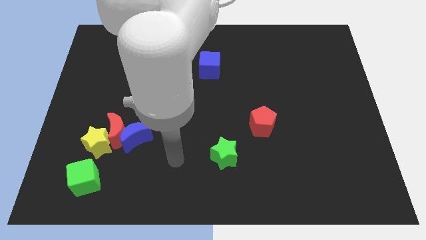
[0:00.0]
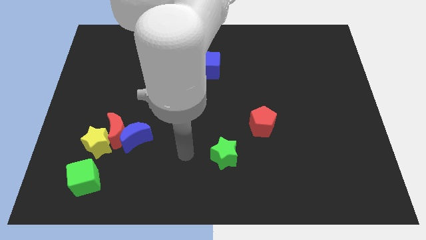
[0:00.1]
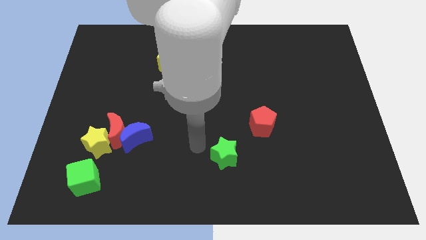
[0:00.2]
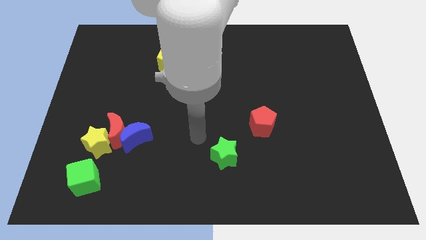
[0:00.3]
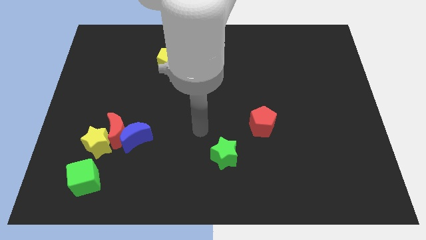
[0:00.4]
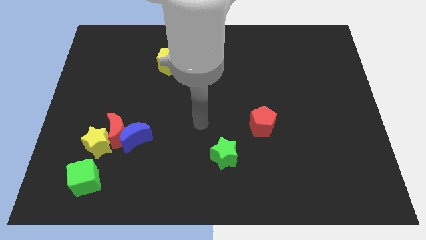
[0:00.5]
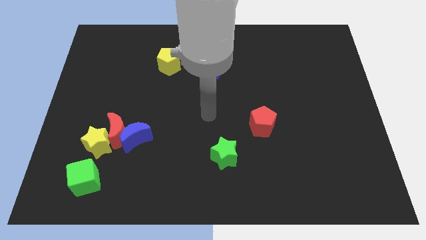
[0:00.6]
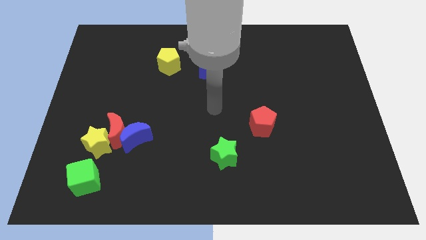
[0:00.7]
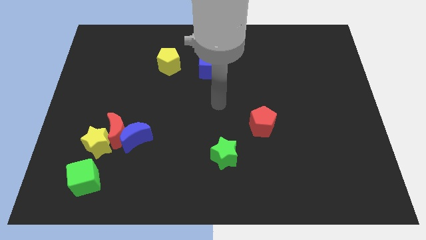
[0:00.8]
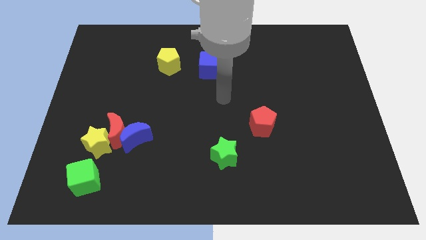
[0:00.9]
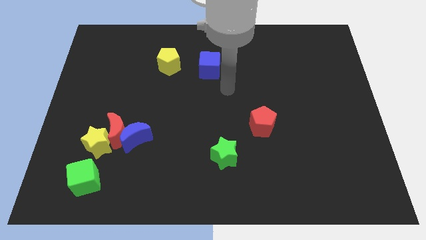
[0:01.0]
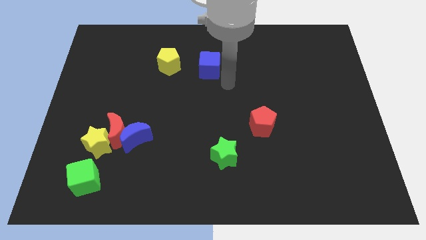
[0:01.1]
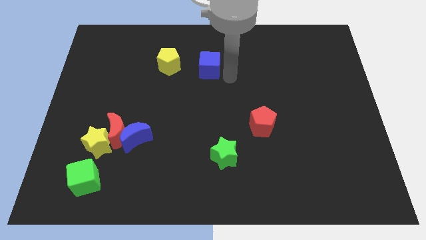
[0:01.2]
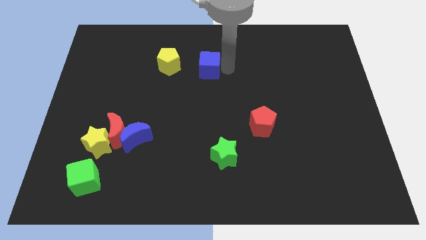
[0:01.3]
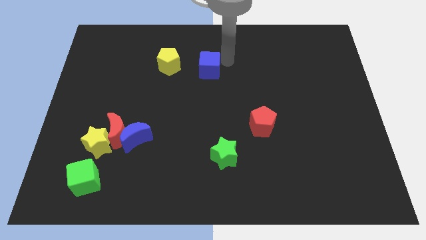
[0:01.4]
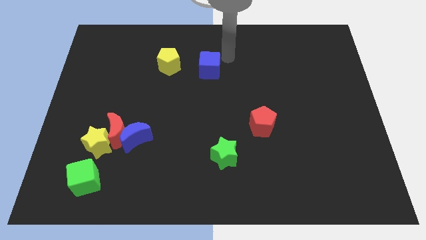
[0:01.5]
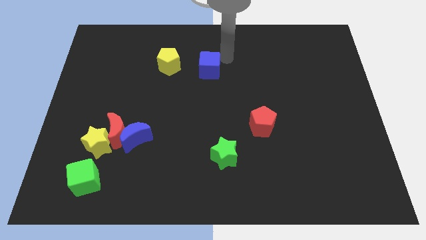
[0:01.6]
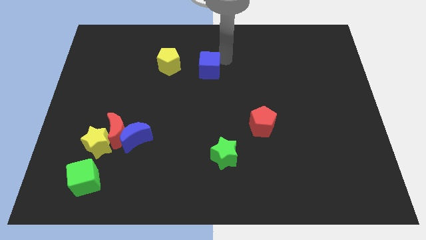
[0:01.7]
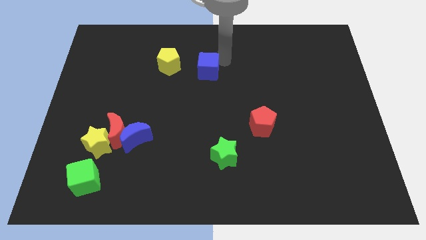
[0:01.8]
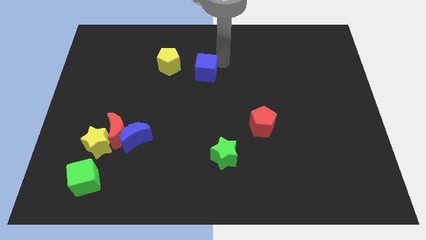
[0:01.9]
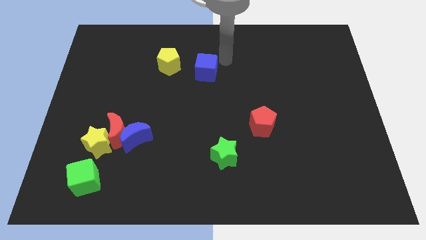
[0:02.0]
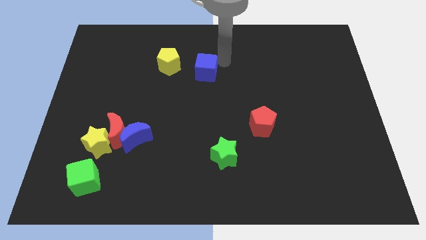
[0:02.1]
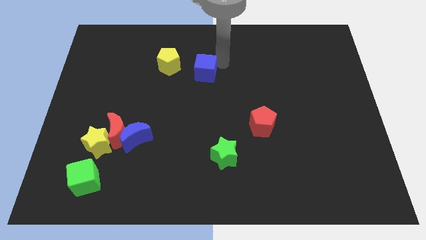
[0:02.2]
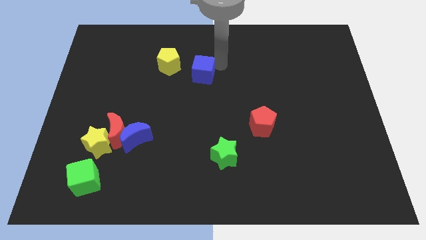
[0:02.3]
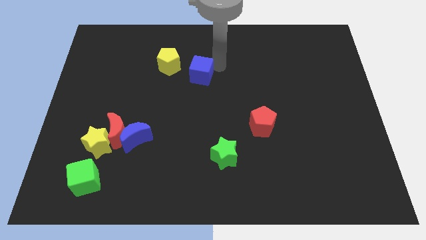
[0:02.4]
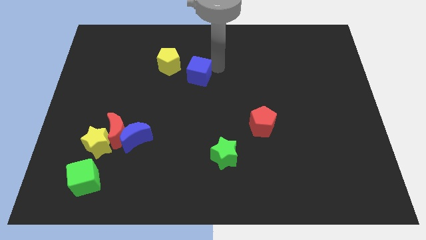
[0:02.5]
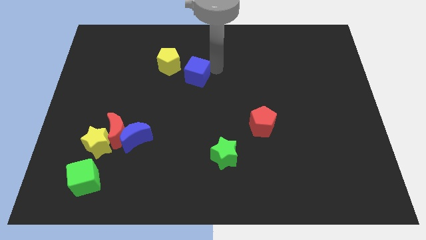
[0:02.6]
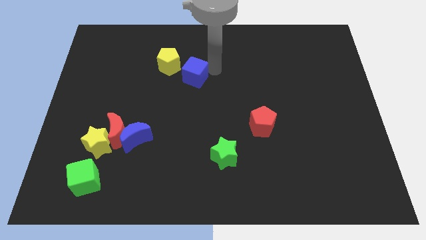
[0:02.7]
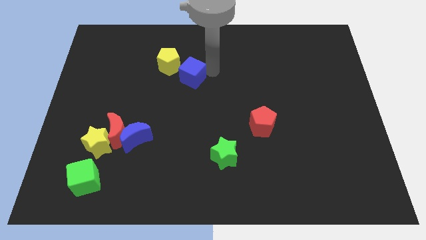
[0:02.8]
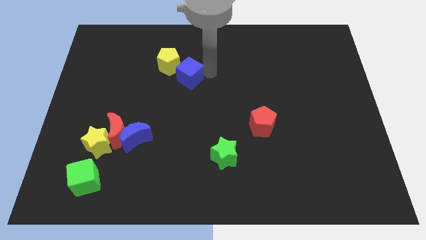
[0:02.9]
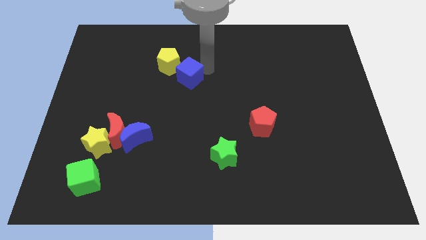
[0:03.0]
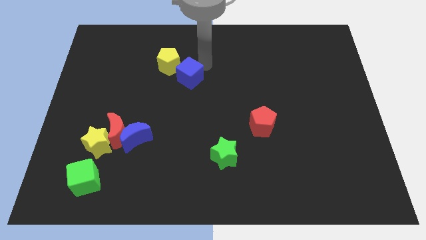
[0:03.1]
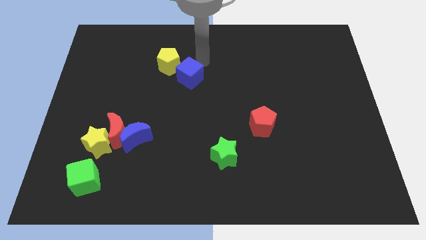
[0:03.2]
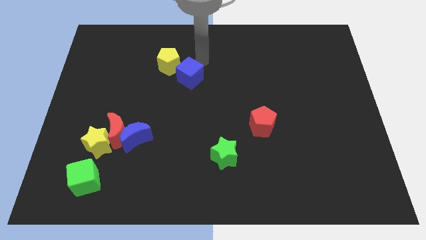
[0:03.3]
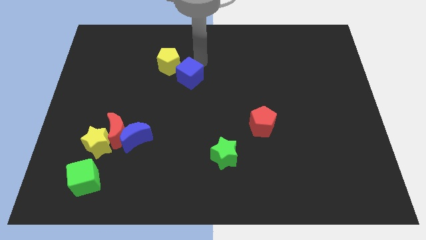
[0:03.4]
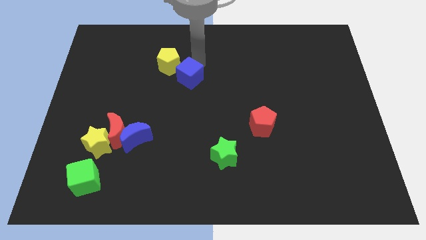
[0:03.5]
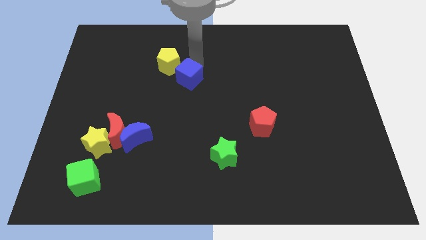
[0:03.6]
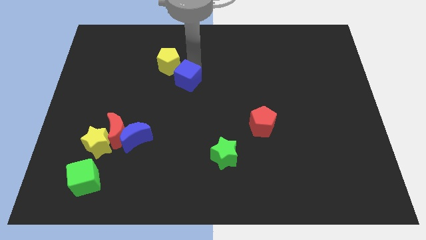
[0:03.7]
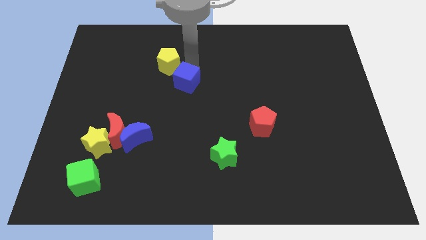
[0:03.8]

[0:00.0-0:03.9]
slightly slide the blue cube downwards and then to the left

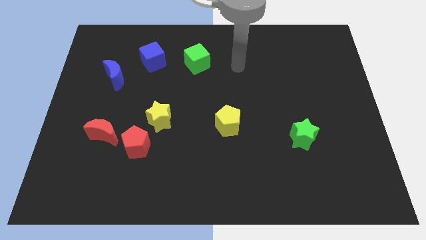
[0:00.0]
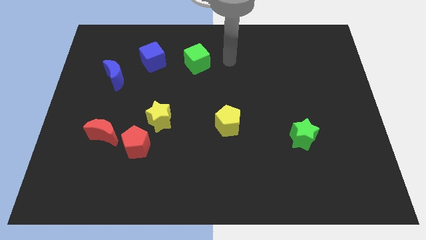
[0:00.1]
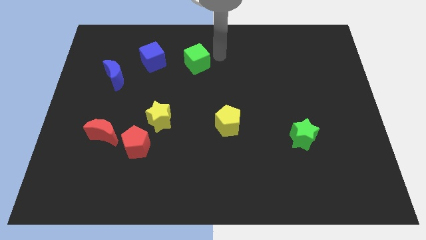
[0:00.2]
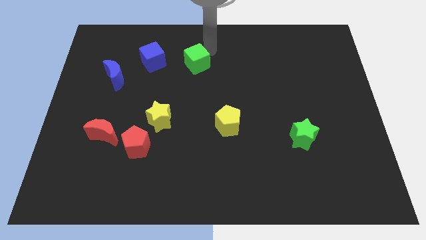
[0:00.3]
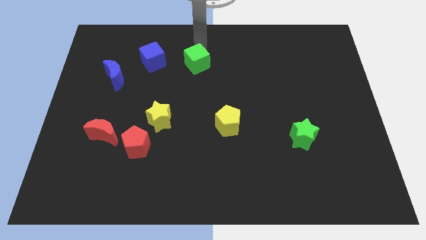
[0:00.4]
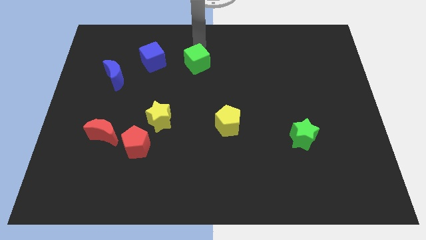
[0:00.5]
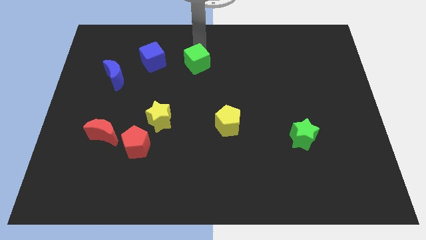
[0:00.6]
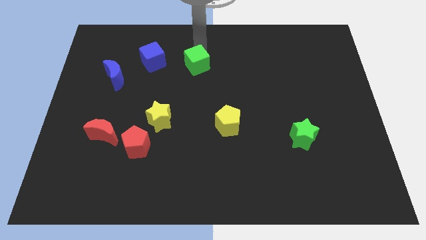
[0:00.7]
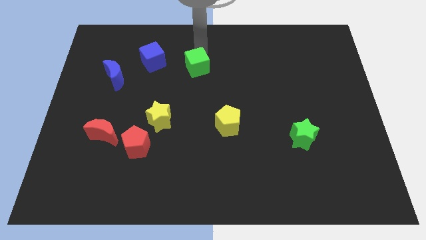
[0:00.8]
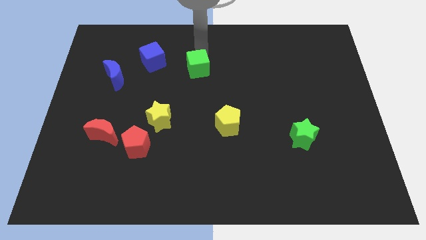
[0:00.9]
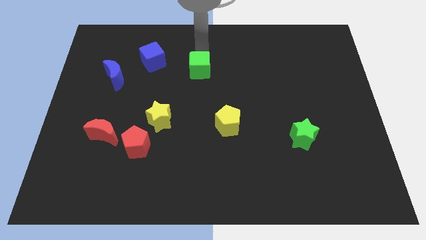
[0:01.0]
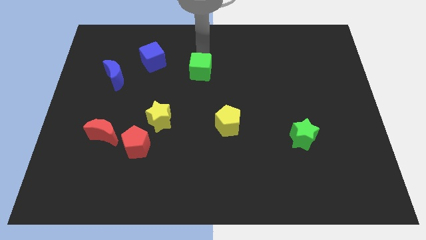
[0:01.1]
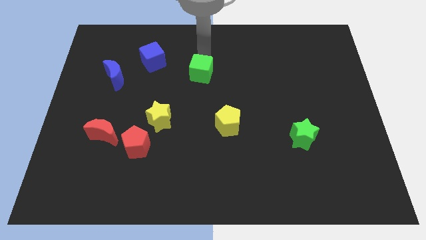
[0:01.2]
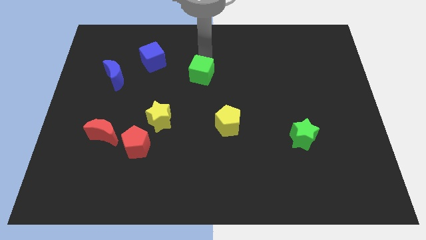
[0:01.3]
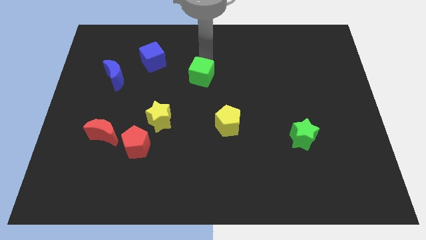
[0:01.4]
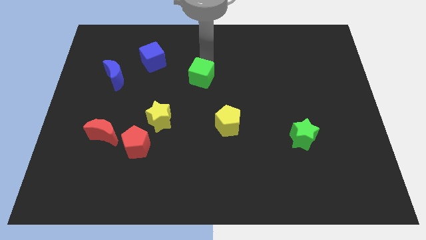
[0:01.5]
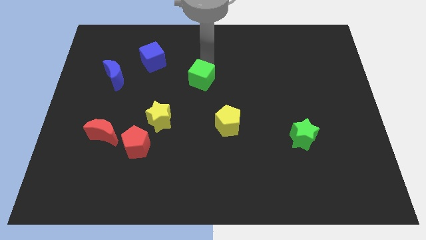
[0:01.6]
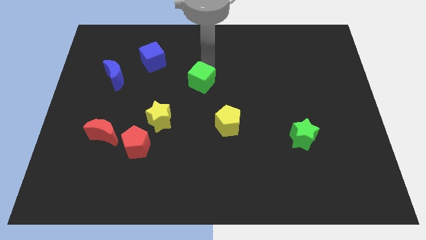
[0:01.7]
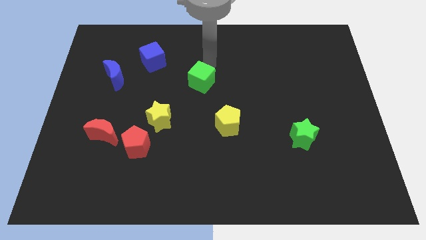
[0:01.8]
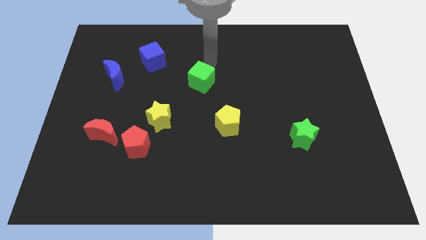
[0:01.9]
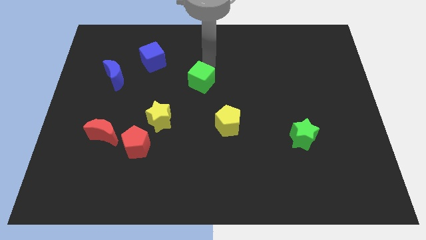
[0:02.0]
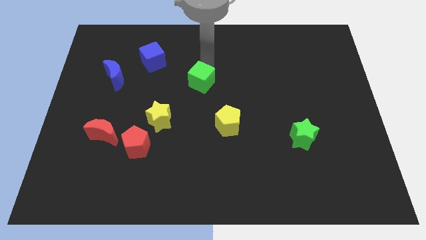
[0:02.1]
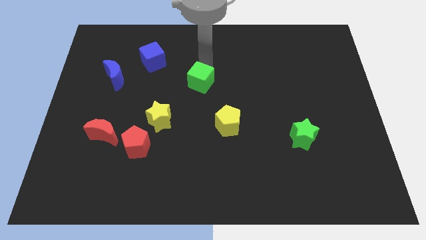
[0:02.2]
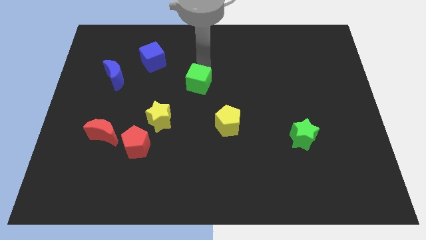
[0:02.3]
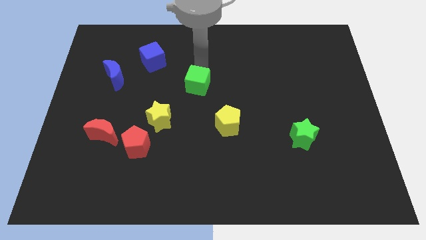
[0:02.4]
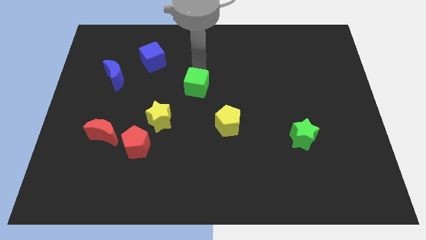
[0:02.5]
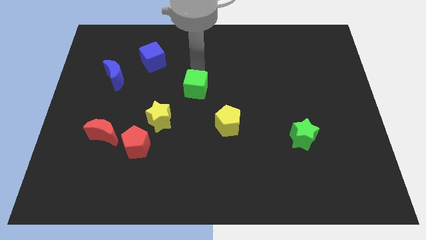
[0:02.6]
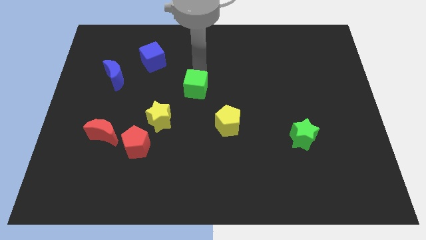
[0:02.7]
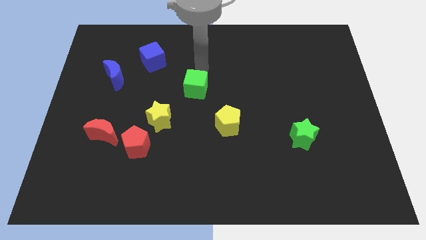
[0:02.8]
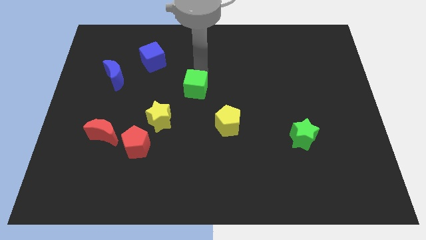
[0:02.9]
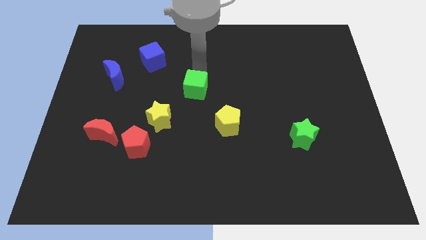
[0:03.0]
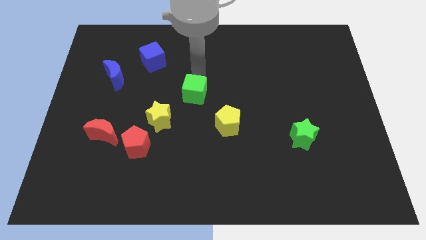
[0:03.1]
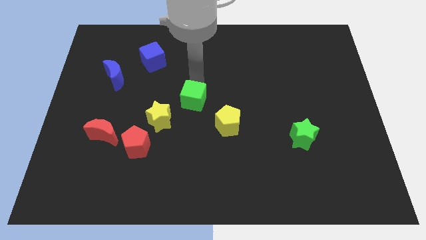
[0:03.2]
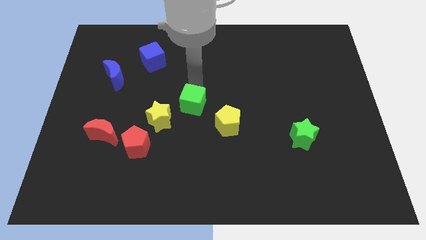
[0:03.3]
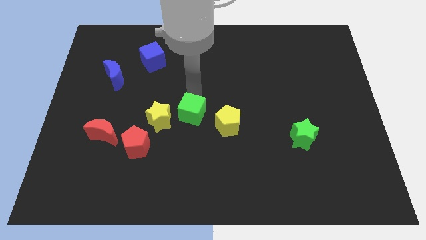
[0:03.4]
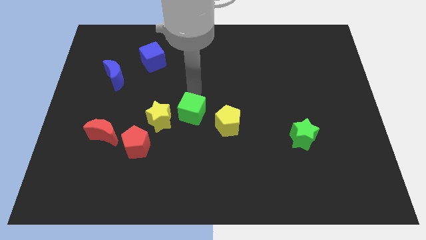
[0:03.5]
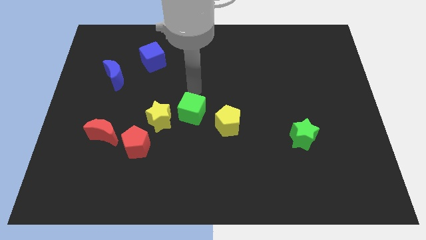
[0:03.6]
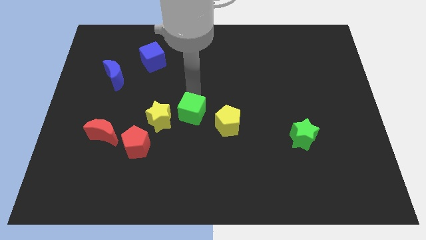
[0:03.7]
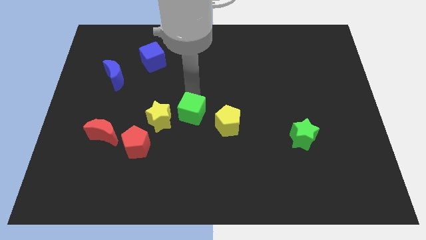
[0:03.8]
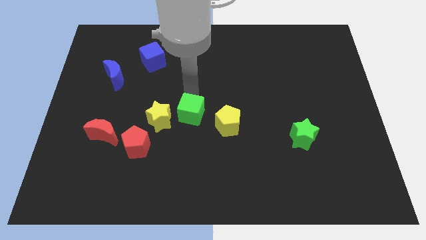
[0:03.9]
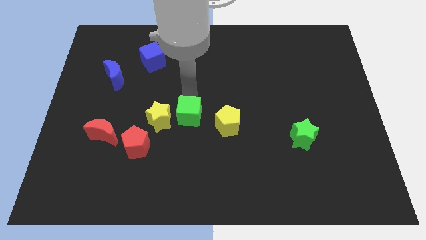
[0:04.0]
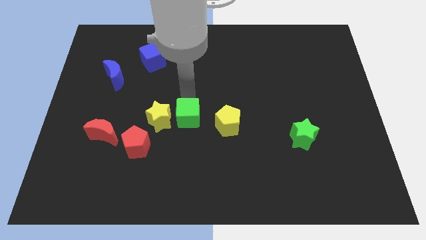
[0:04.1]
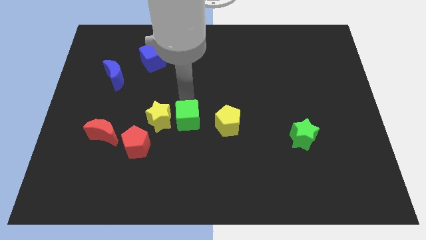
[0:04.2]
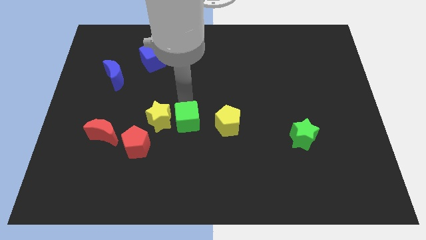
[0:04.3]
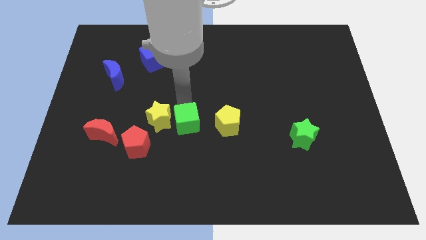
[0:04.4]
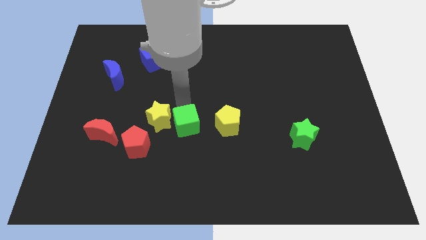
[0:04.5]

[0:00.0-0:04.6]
push the green cube down

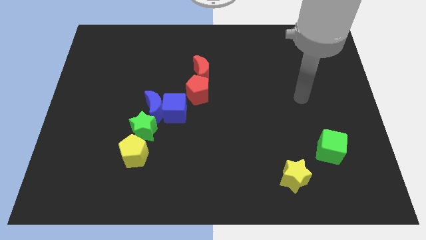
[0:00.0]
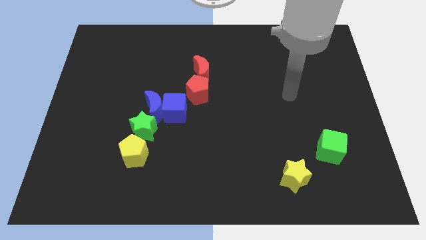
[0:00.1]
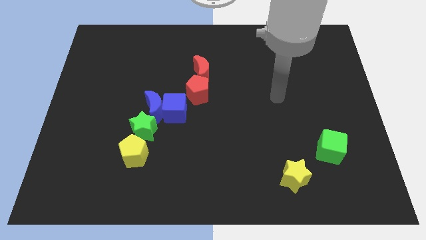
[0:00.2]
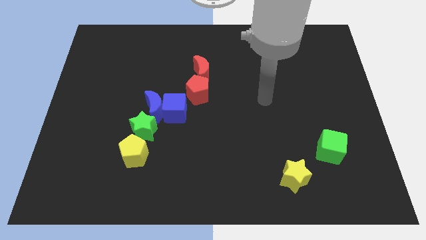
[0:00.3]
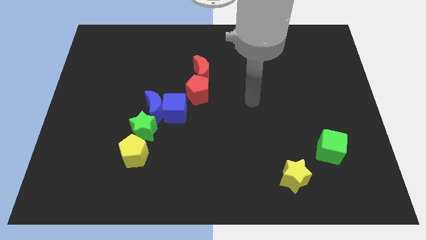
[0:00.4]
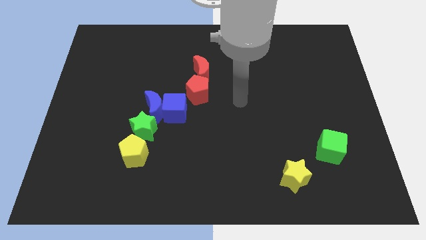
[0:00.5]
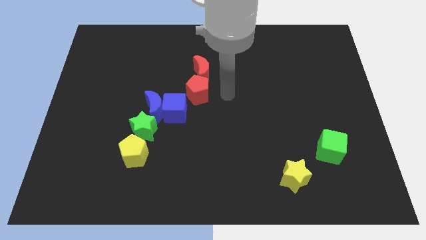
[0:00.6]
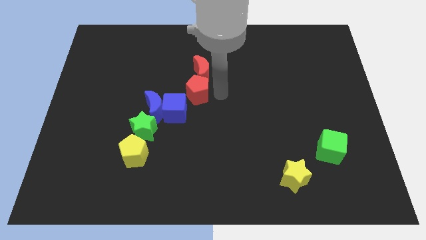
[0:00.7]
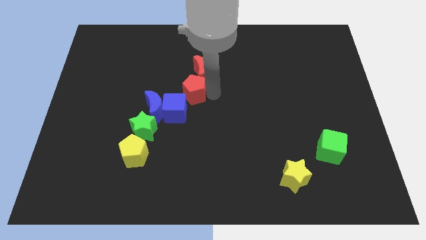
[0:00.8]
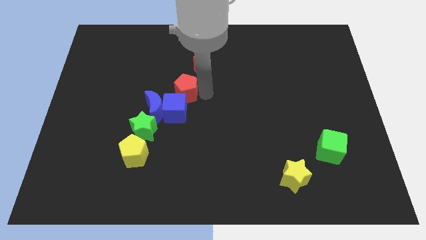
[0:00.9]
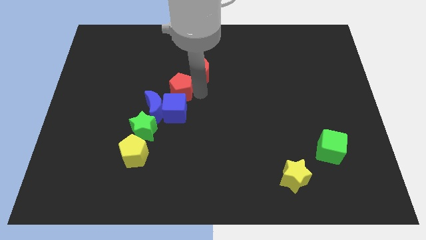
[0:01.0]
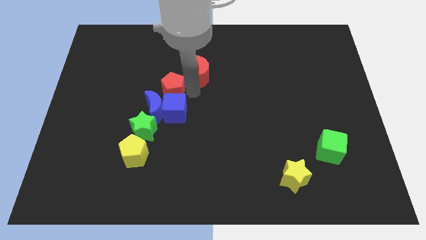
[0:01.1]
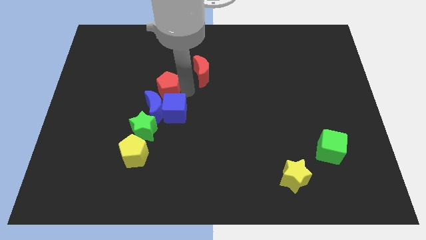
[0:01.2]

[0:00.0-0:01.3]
push the red pentagon to the left a little bit
